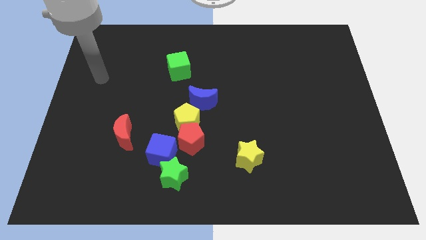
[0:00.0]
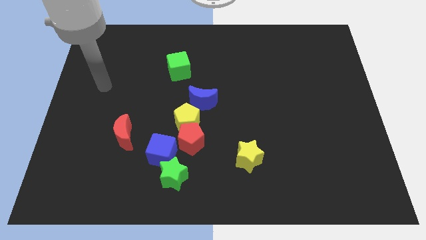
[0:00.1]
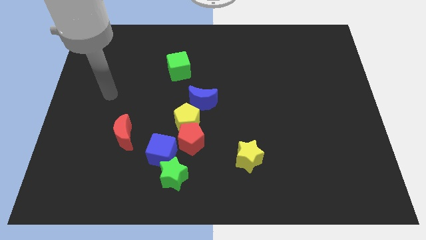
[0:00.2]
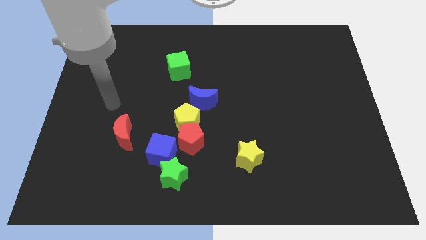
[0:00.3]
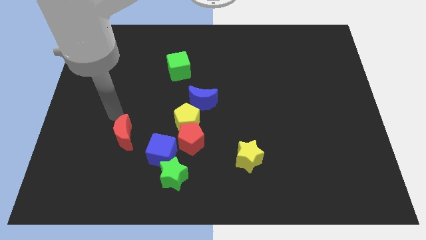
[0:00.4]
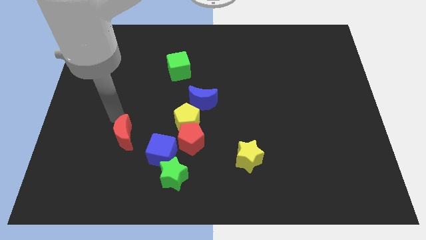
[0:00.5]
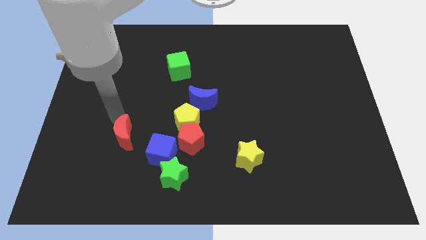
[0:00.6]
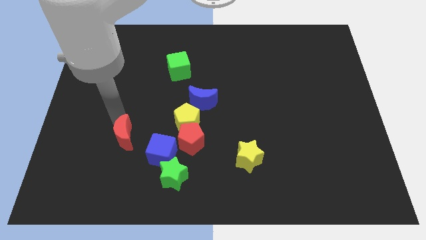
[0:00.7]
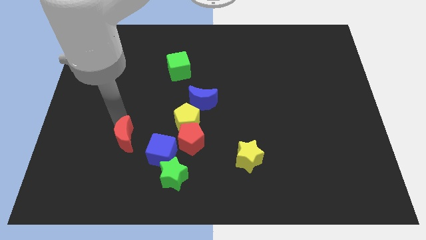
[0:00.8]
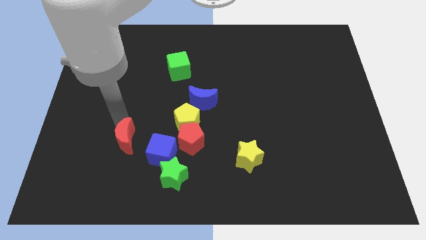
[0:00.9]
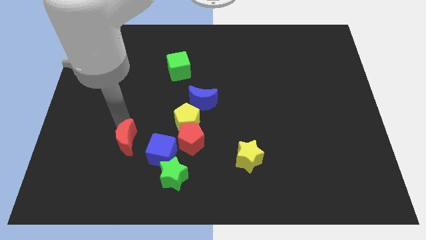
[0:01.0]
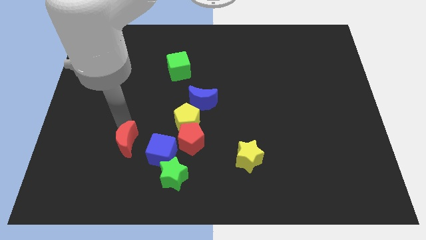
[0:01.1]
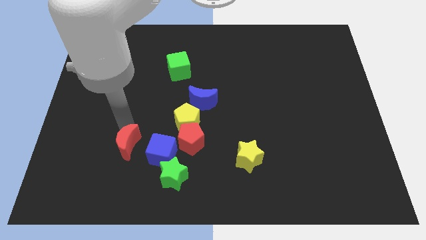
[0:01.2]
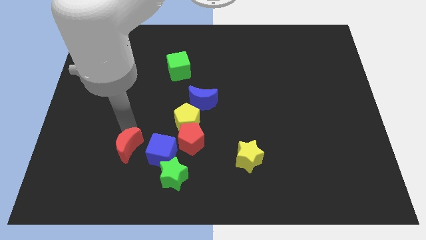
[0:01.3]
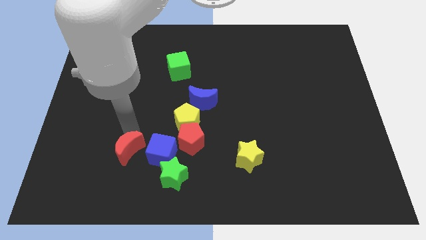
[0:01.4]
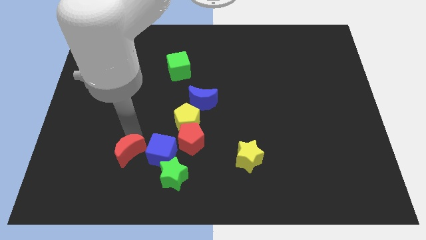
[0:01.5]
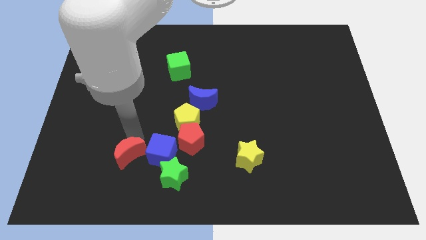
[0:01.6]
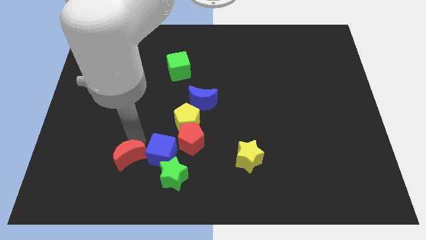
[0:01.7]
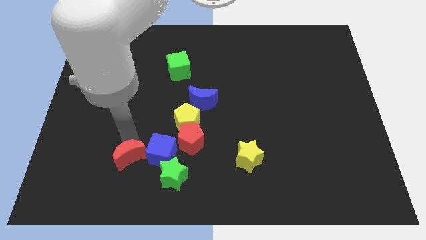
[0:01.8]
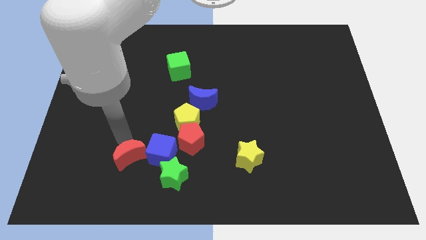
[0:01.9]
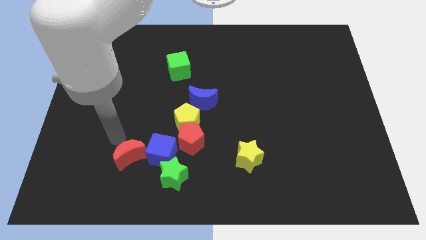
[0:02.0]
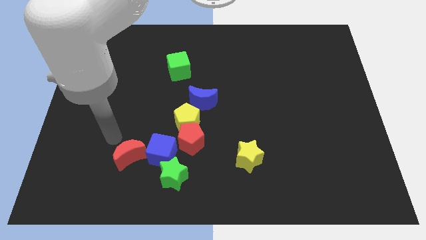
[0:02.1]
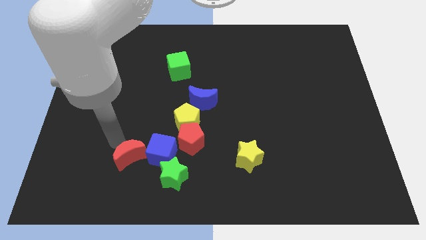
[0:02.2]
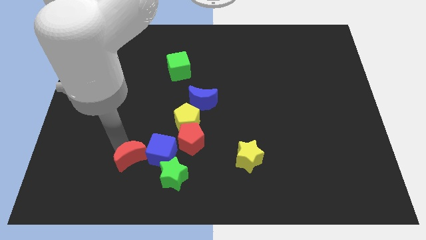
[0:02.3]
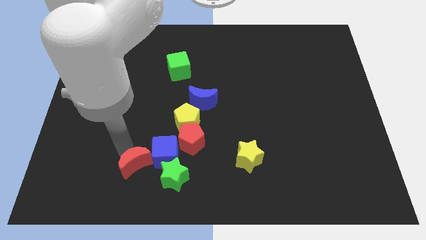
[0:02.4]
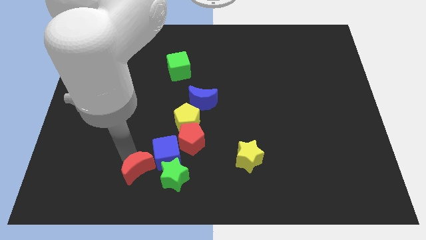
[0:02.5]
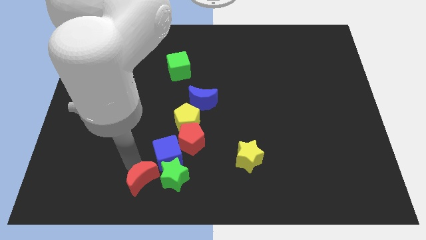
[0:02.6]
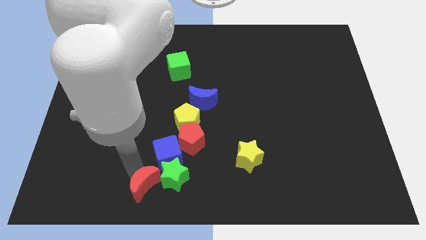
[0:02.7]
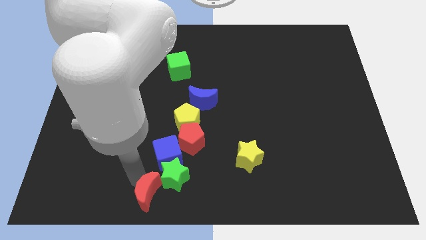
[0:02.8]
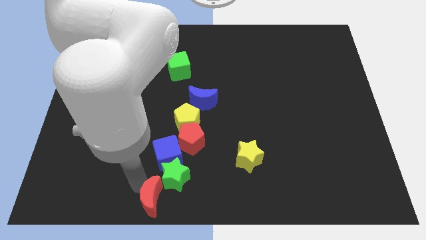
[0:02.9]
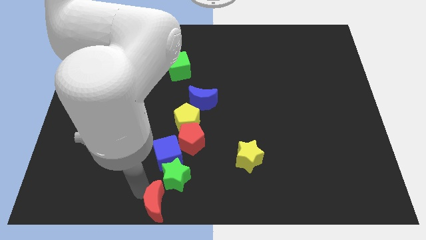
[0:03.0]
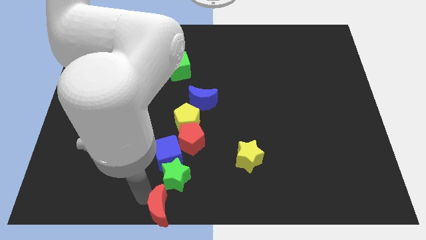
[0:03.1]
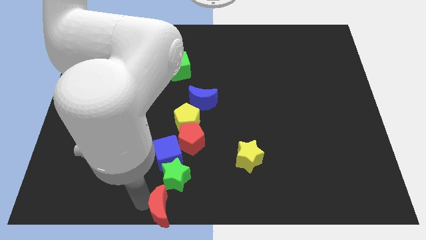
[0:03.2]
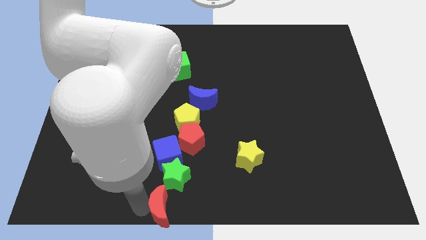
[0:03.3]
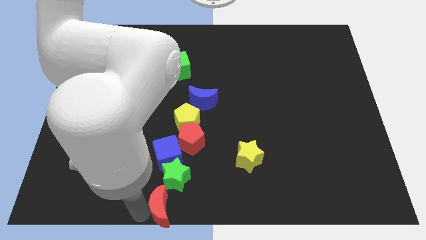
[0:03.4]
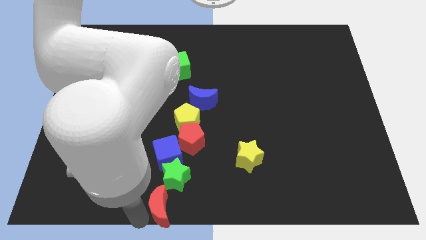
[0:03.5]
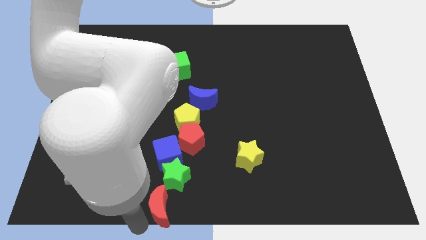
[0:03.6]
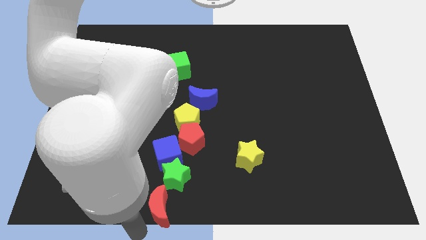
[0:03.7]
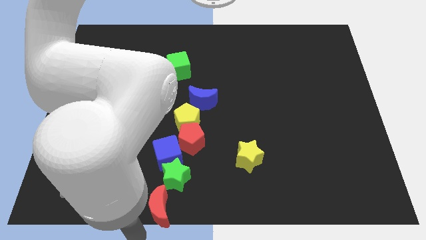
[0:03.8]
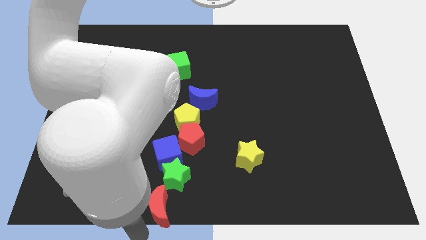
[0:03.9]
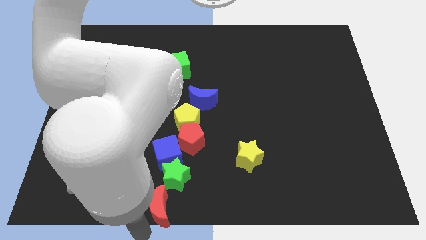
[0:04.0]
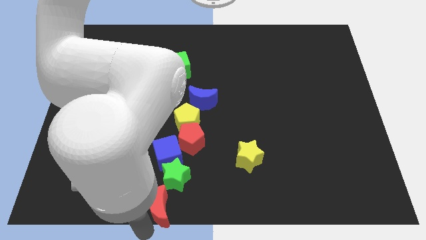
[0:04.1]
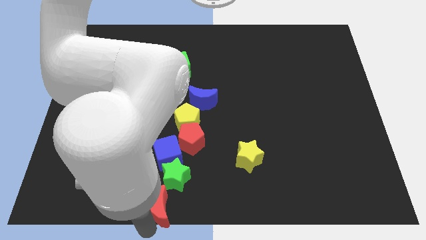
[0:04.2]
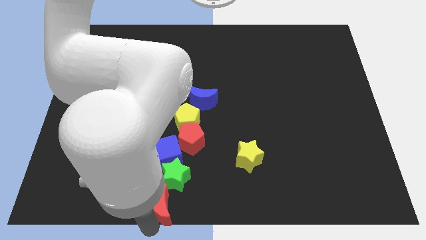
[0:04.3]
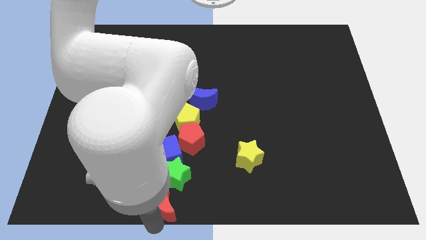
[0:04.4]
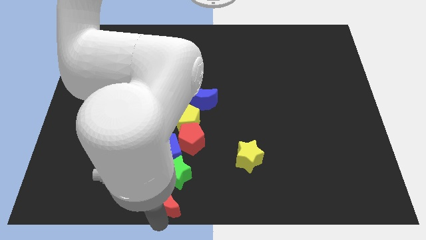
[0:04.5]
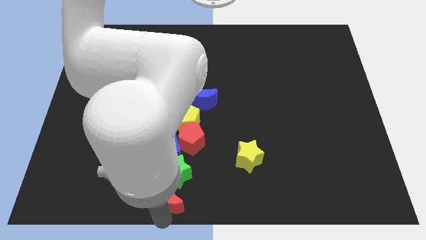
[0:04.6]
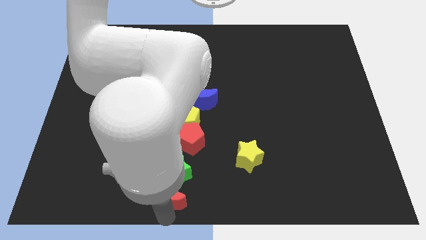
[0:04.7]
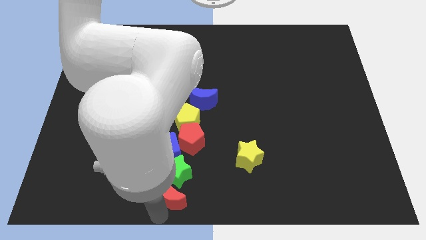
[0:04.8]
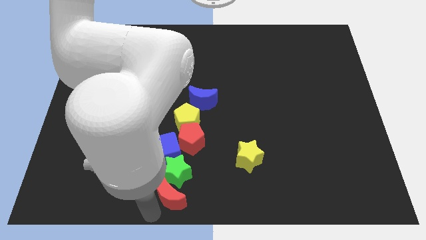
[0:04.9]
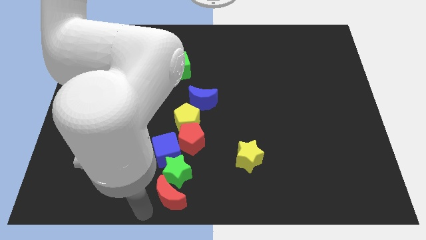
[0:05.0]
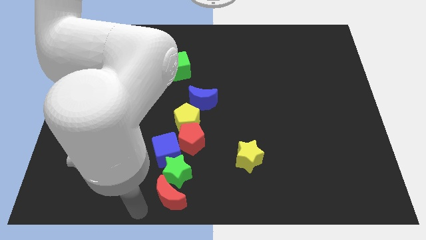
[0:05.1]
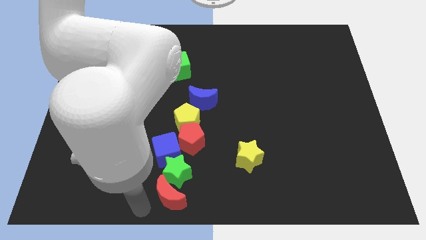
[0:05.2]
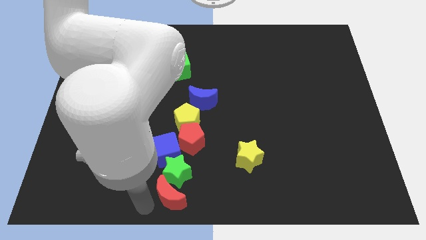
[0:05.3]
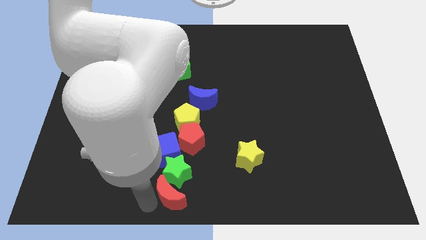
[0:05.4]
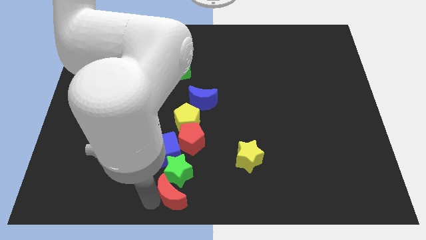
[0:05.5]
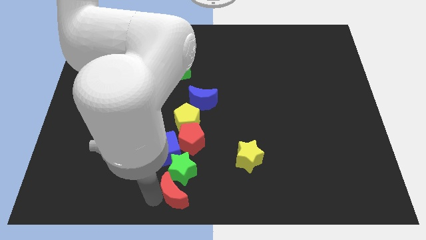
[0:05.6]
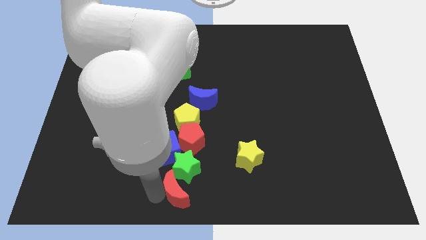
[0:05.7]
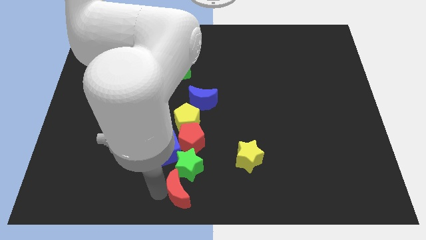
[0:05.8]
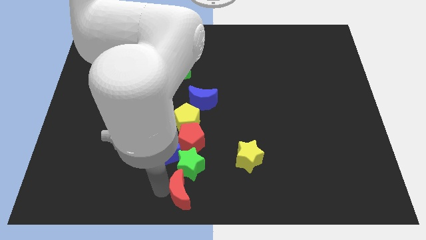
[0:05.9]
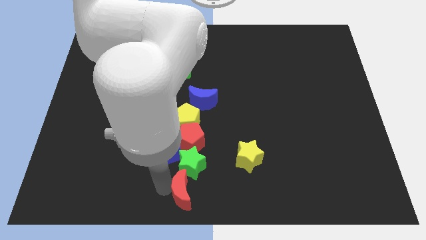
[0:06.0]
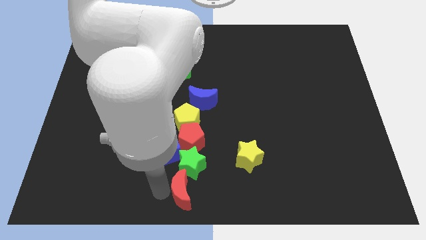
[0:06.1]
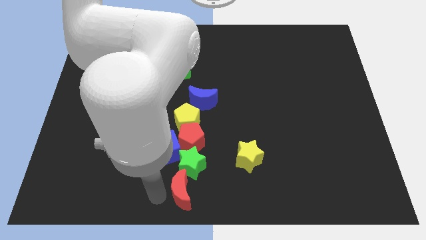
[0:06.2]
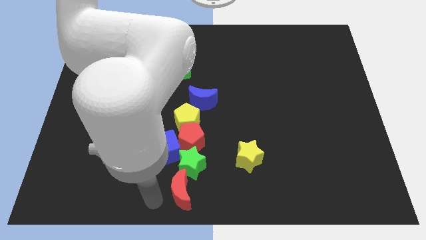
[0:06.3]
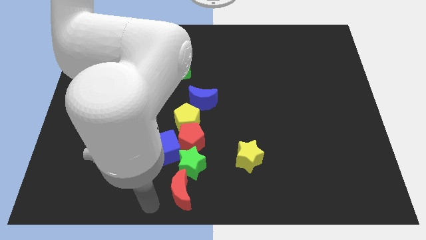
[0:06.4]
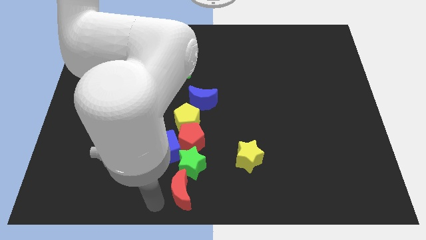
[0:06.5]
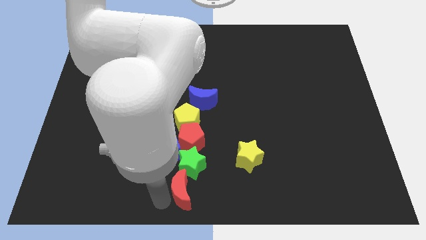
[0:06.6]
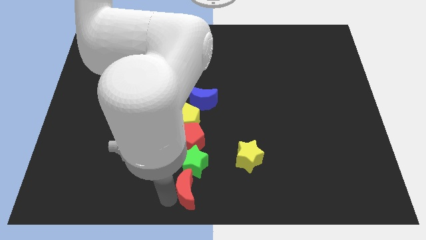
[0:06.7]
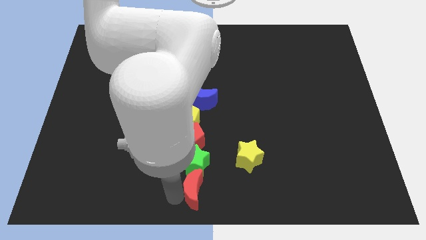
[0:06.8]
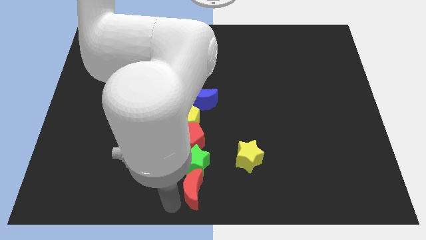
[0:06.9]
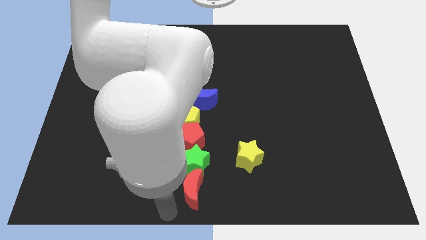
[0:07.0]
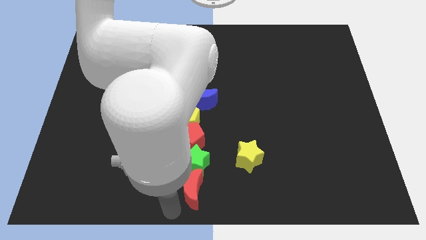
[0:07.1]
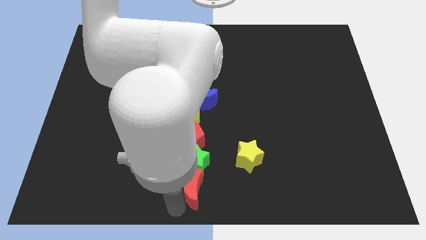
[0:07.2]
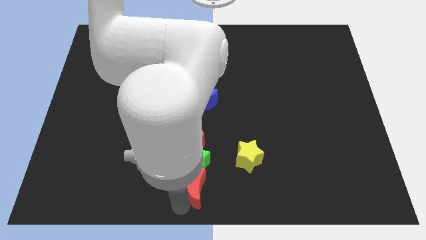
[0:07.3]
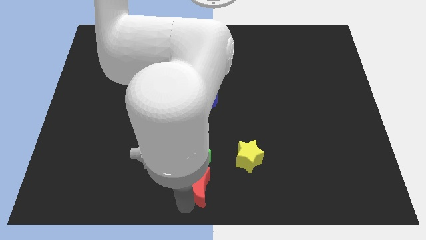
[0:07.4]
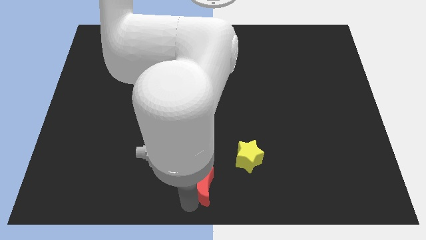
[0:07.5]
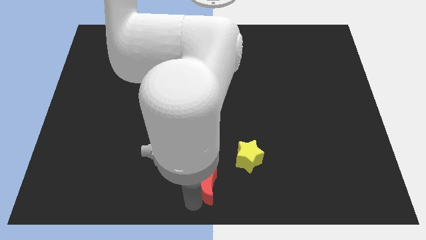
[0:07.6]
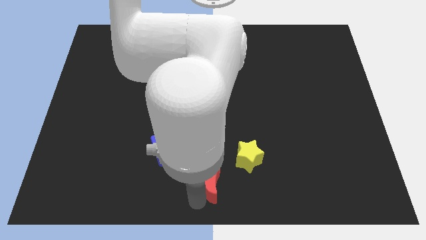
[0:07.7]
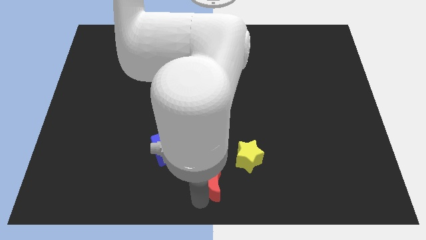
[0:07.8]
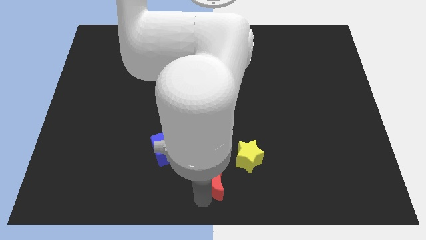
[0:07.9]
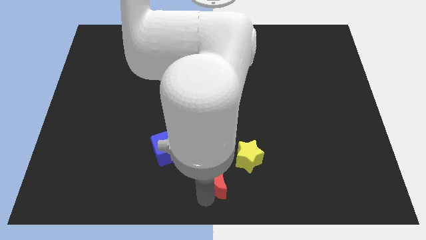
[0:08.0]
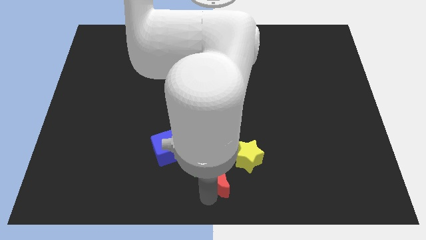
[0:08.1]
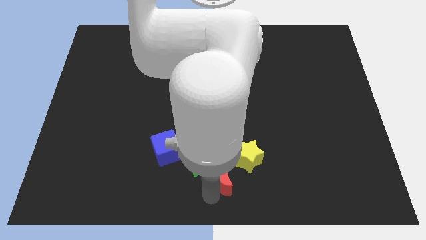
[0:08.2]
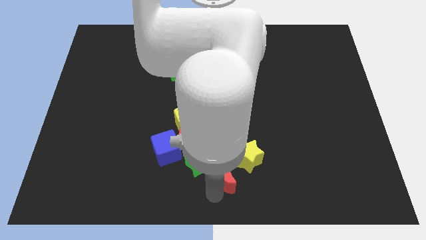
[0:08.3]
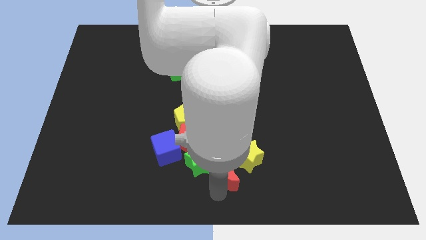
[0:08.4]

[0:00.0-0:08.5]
put the red moon to the yellow star
